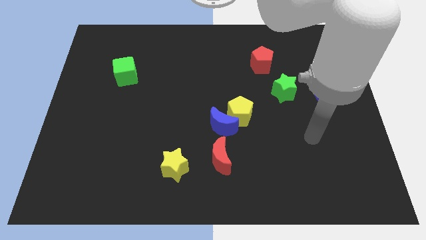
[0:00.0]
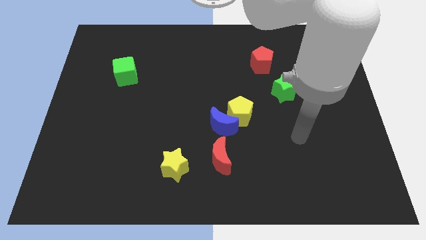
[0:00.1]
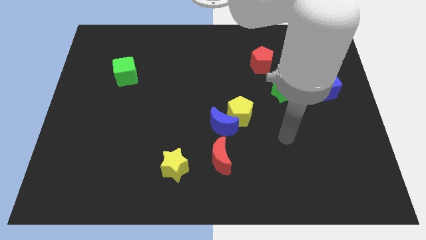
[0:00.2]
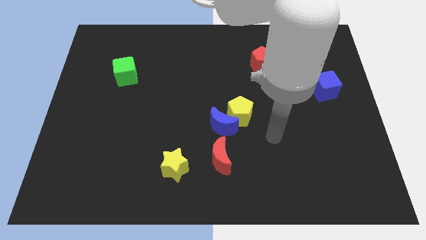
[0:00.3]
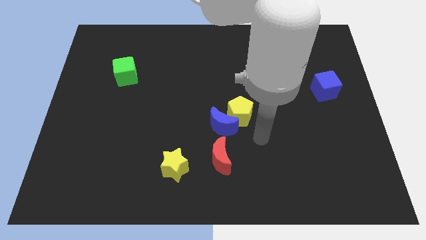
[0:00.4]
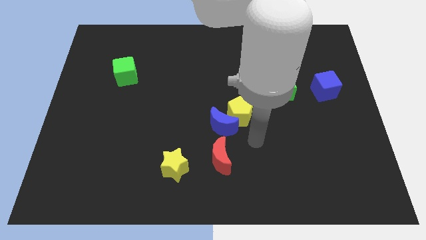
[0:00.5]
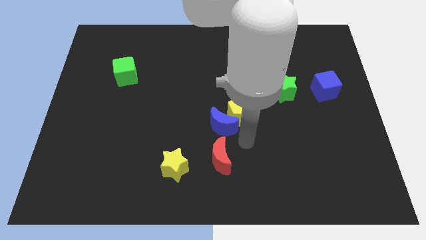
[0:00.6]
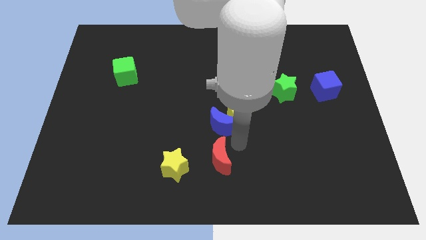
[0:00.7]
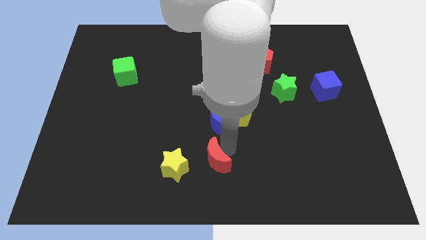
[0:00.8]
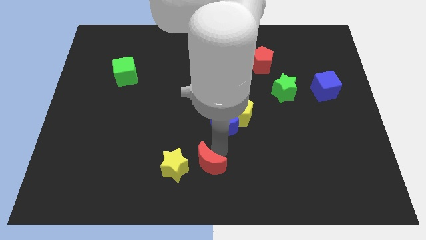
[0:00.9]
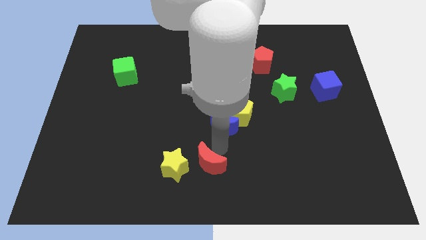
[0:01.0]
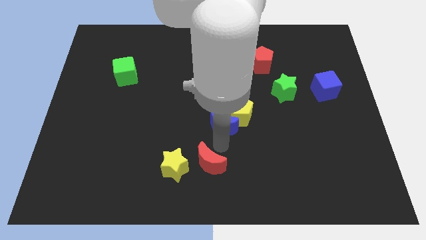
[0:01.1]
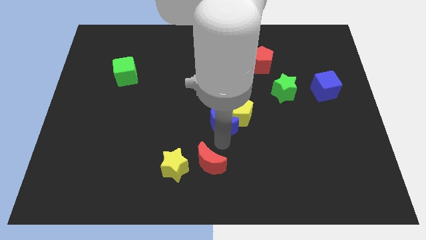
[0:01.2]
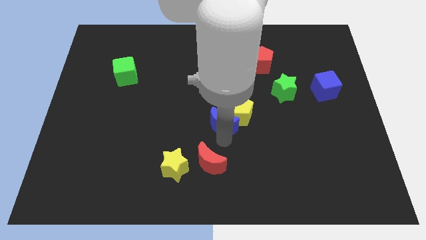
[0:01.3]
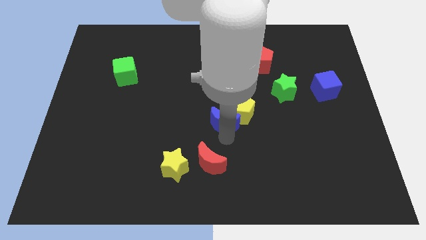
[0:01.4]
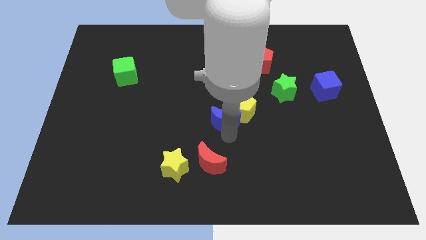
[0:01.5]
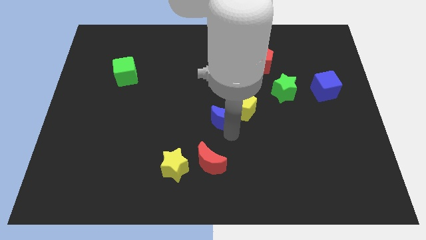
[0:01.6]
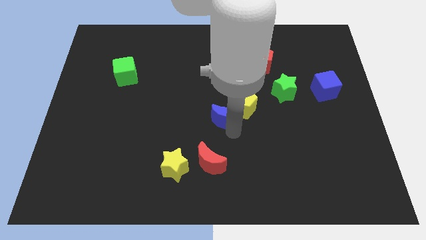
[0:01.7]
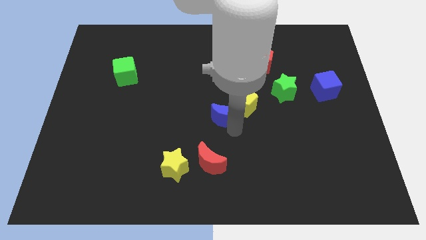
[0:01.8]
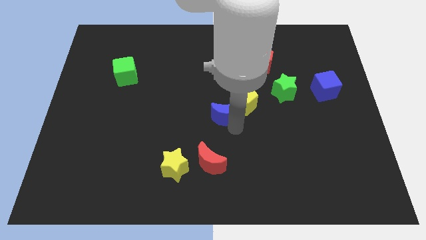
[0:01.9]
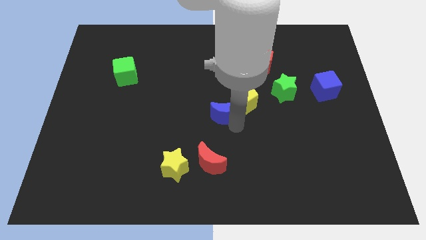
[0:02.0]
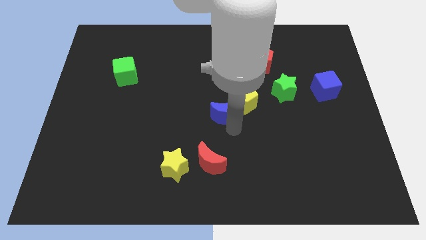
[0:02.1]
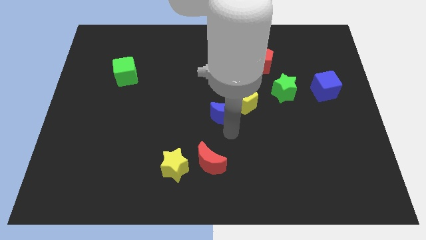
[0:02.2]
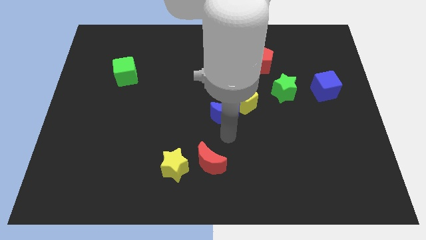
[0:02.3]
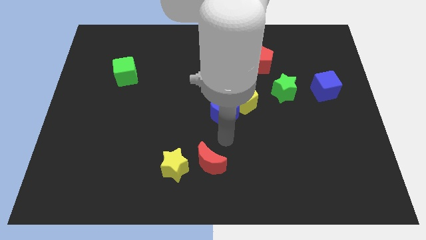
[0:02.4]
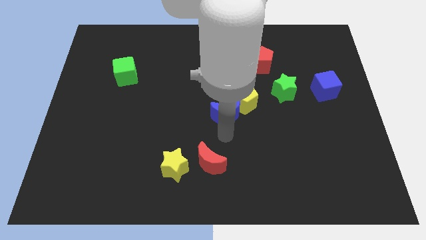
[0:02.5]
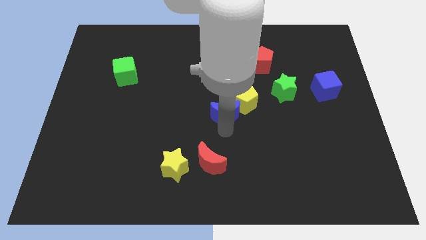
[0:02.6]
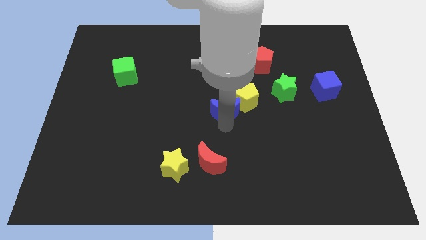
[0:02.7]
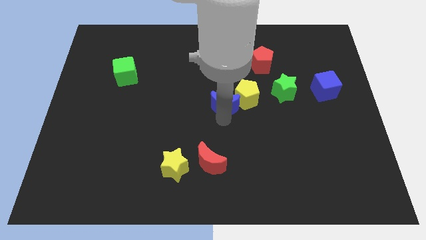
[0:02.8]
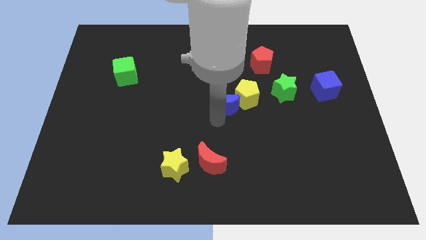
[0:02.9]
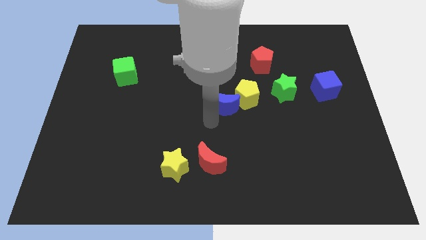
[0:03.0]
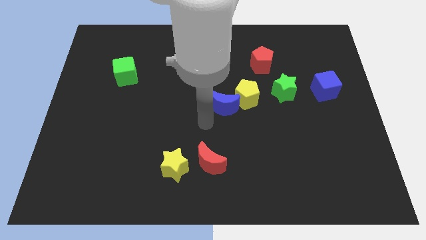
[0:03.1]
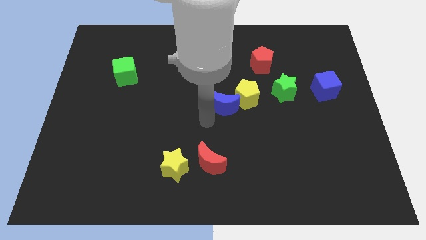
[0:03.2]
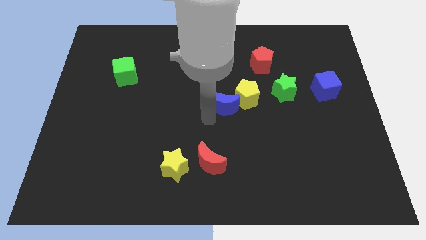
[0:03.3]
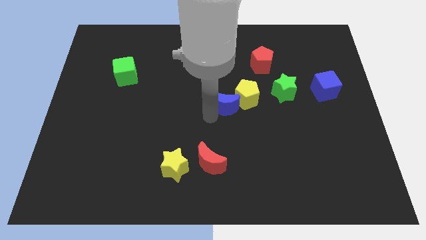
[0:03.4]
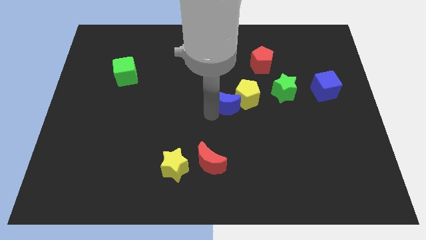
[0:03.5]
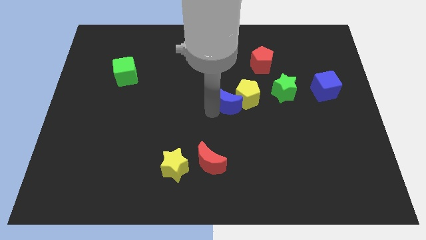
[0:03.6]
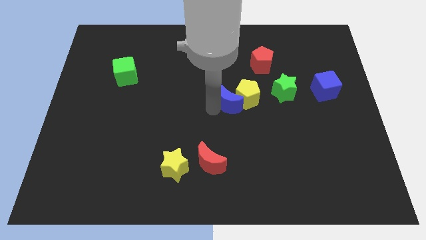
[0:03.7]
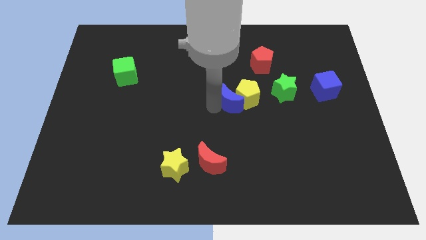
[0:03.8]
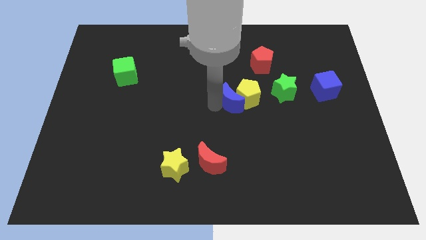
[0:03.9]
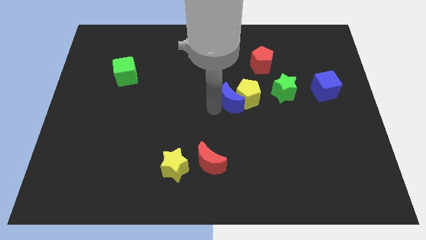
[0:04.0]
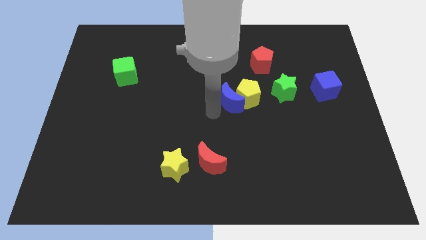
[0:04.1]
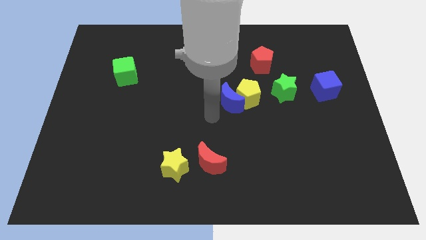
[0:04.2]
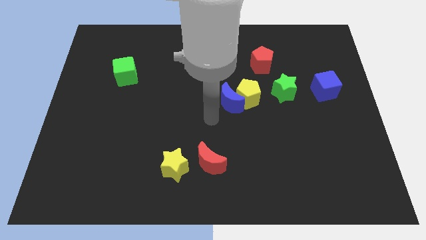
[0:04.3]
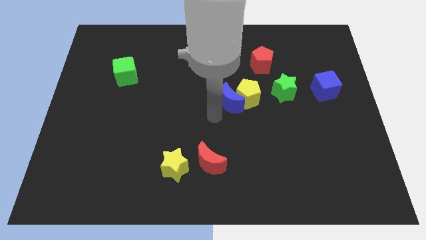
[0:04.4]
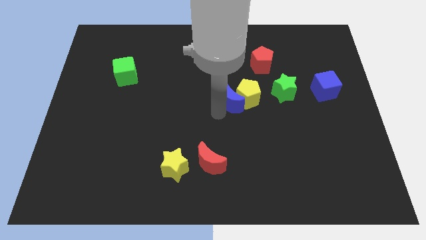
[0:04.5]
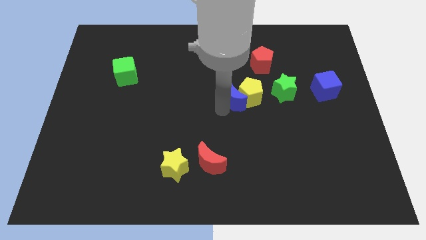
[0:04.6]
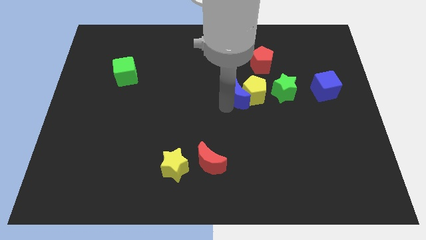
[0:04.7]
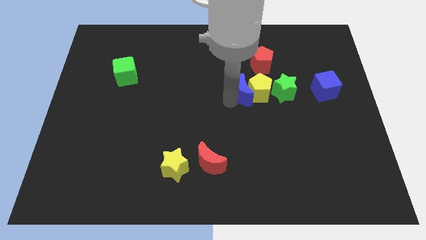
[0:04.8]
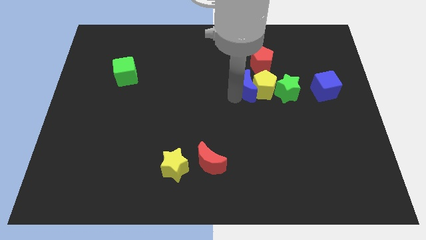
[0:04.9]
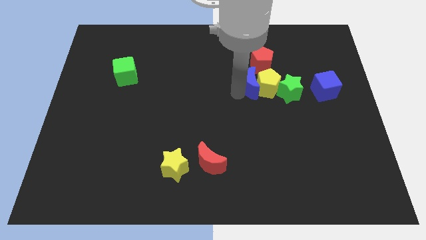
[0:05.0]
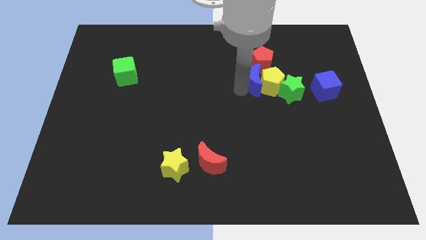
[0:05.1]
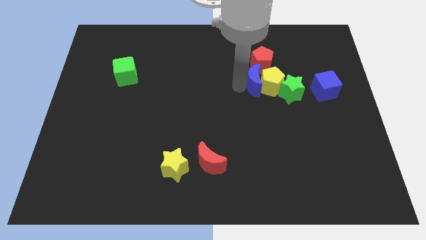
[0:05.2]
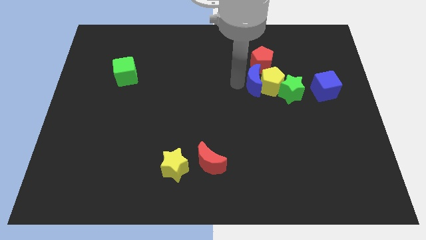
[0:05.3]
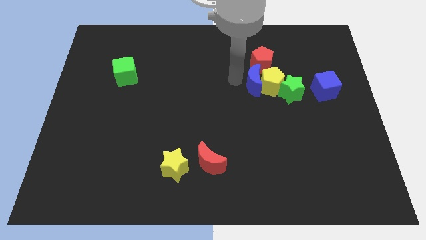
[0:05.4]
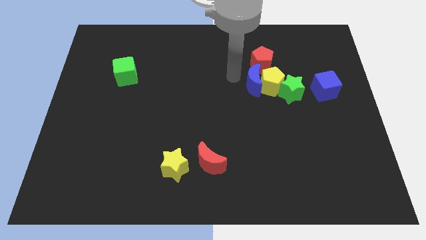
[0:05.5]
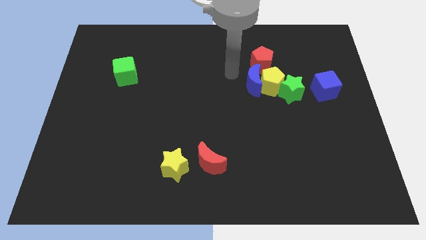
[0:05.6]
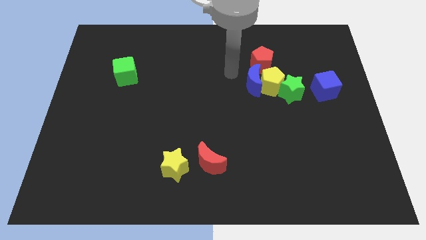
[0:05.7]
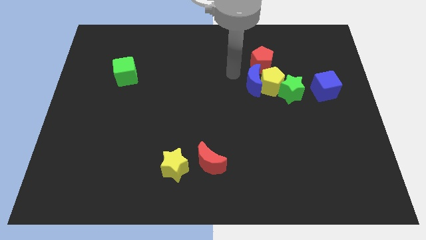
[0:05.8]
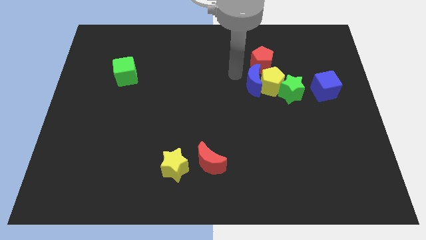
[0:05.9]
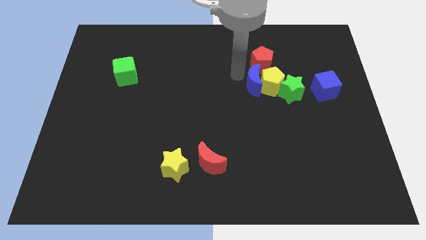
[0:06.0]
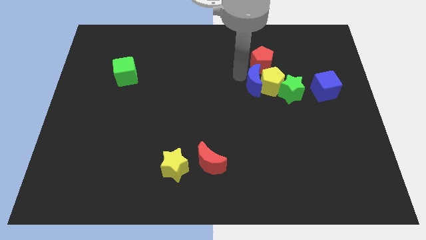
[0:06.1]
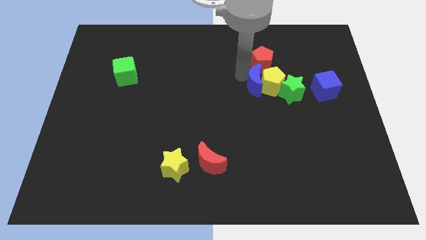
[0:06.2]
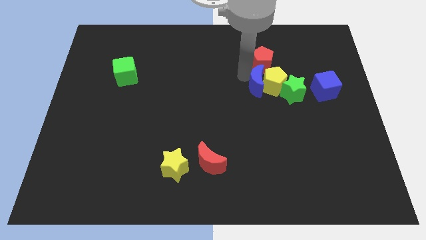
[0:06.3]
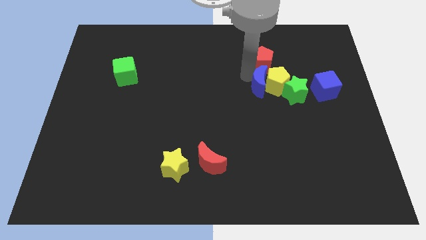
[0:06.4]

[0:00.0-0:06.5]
move the blue moon just left of the blue cube

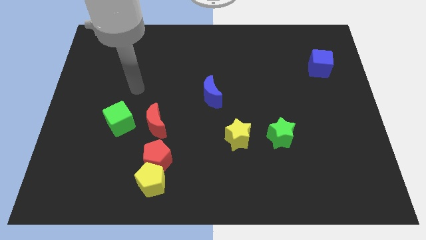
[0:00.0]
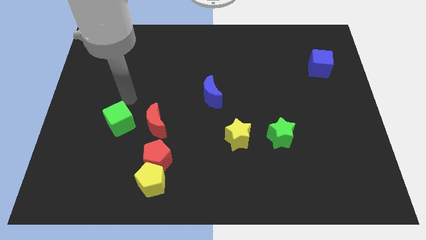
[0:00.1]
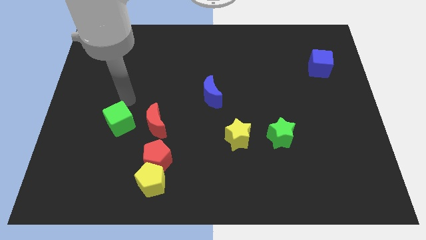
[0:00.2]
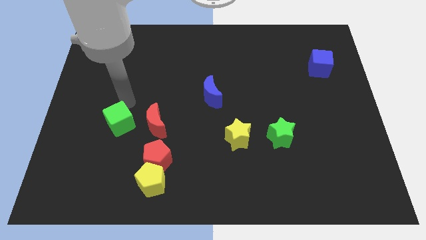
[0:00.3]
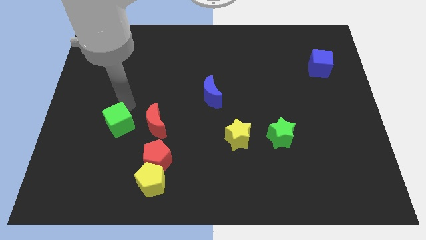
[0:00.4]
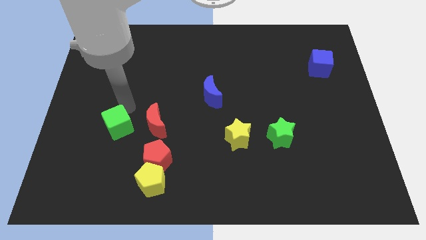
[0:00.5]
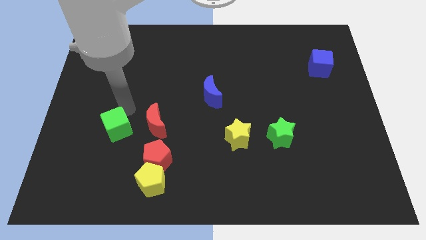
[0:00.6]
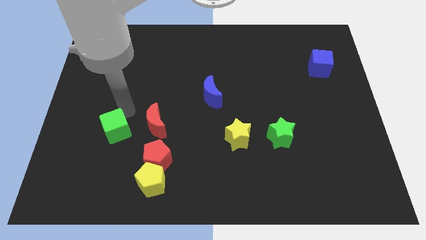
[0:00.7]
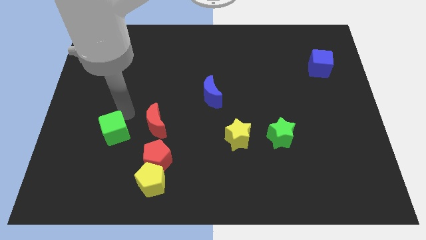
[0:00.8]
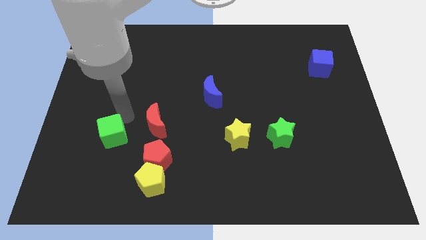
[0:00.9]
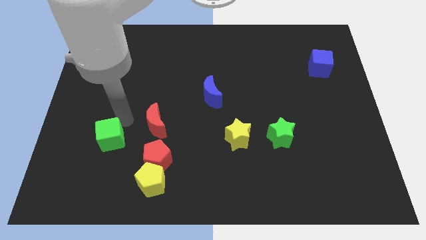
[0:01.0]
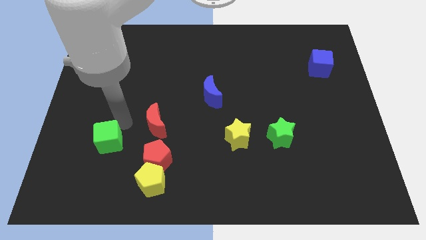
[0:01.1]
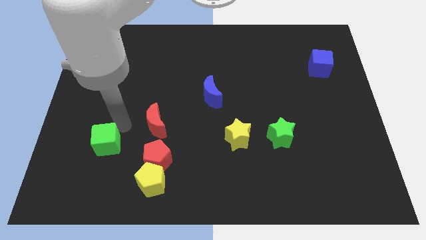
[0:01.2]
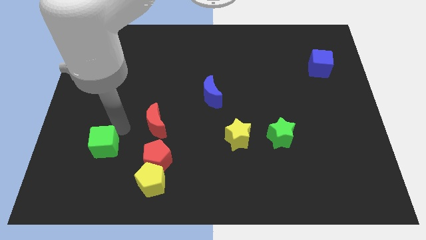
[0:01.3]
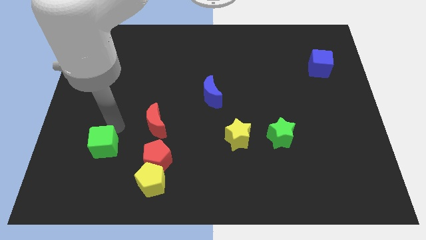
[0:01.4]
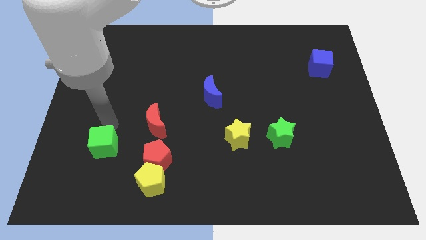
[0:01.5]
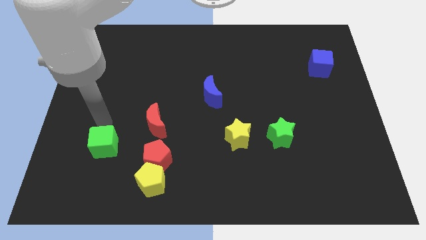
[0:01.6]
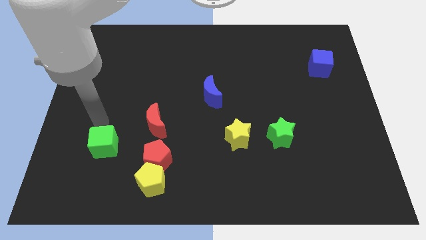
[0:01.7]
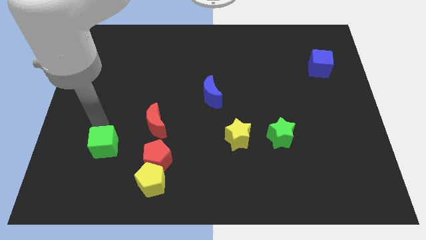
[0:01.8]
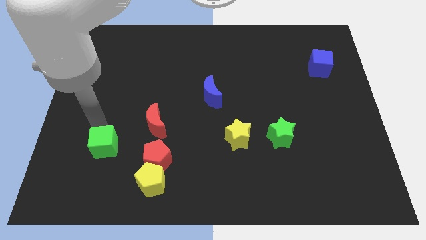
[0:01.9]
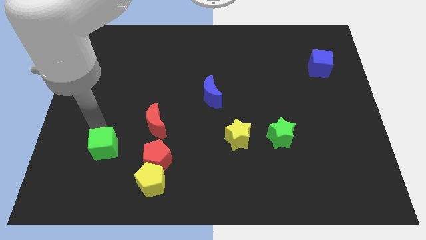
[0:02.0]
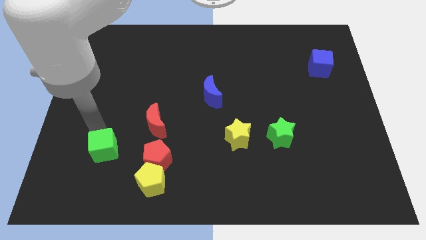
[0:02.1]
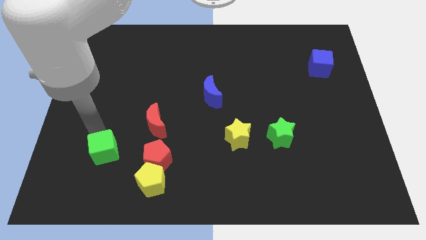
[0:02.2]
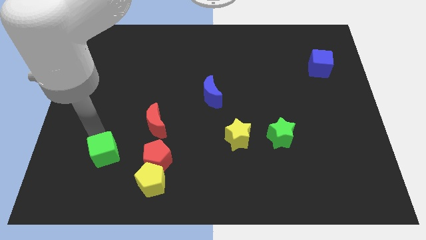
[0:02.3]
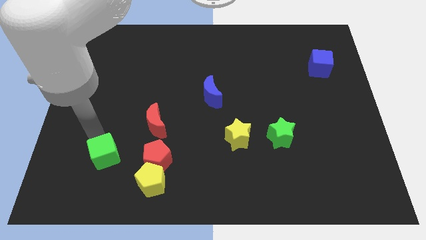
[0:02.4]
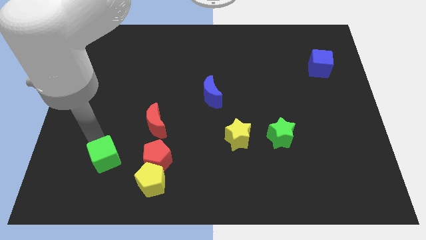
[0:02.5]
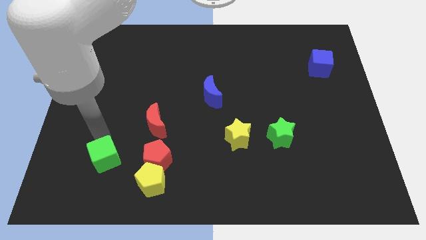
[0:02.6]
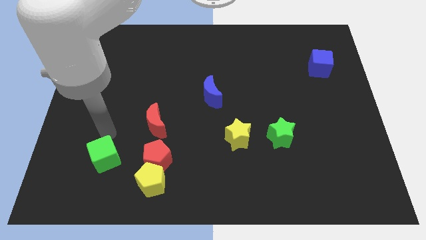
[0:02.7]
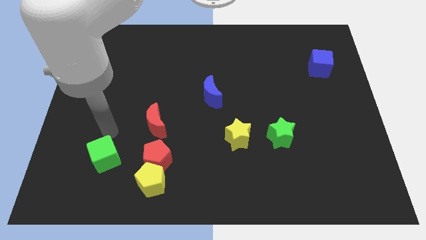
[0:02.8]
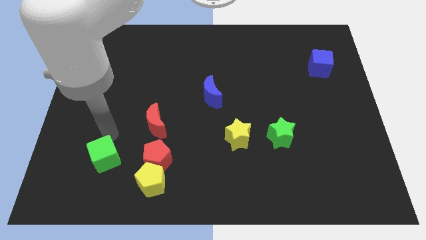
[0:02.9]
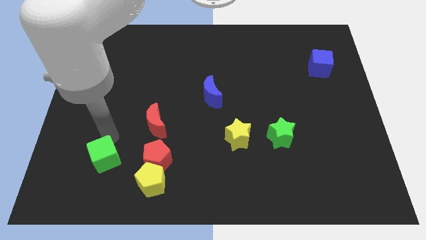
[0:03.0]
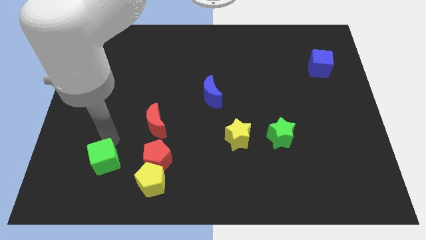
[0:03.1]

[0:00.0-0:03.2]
move the green cube just left of the yellow pentagon
